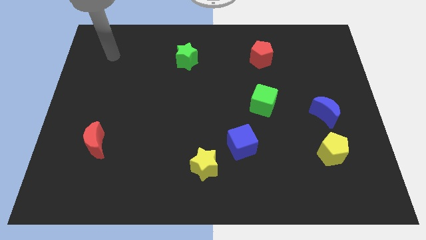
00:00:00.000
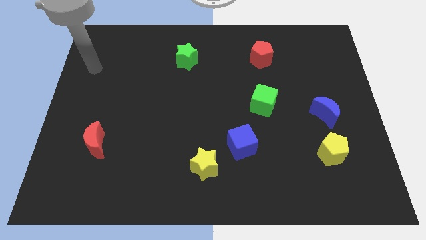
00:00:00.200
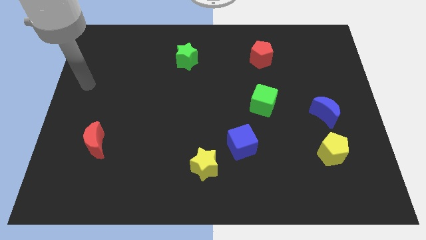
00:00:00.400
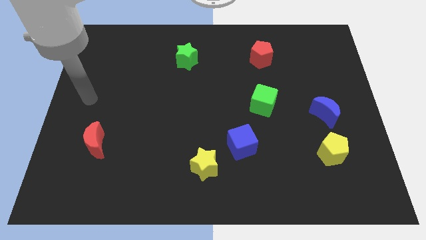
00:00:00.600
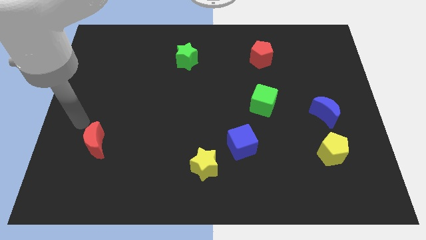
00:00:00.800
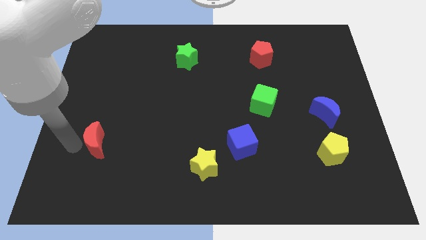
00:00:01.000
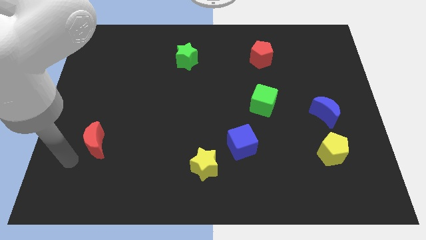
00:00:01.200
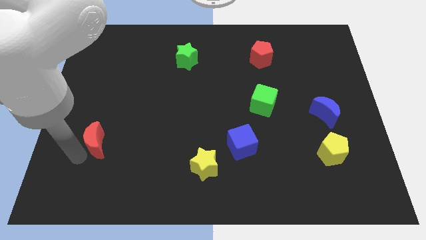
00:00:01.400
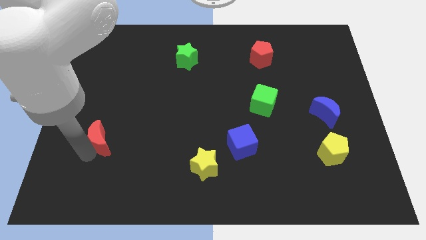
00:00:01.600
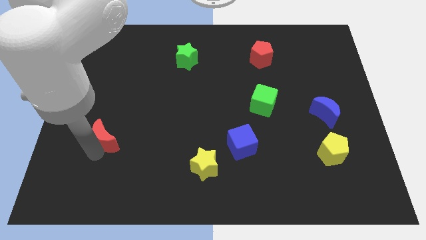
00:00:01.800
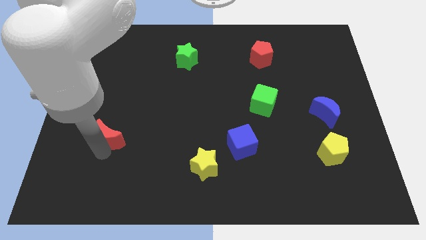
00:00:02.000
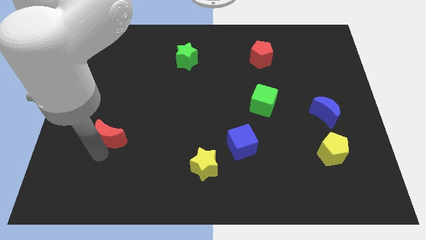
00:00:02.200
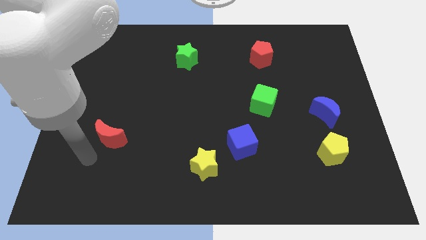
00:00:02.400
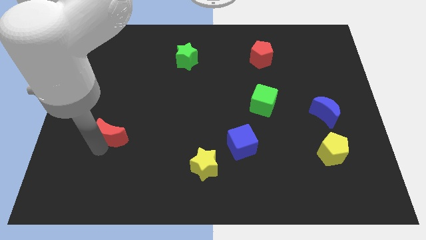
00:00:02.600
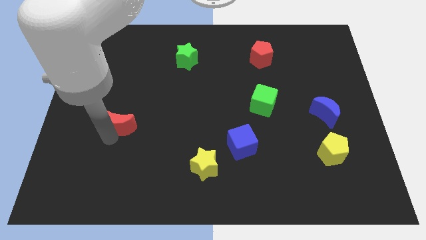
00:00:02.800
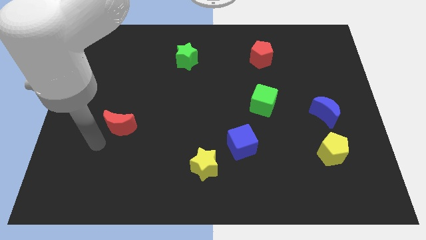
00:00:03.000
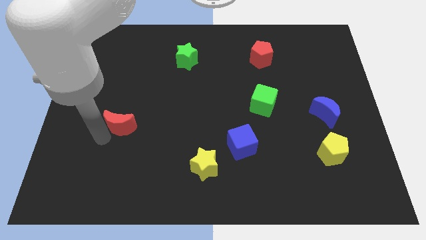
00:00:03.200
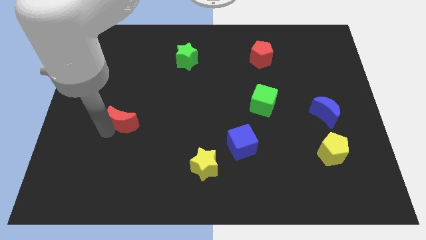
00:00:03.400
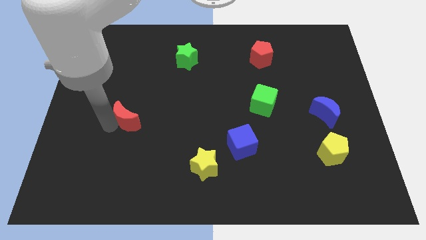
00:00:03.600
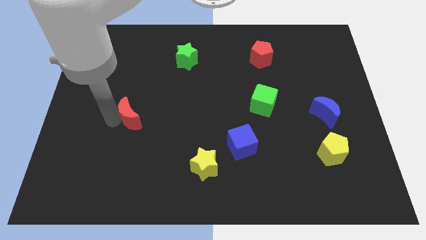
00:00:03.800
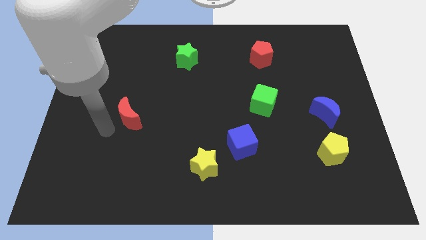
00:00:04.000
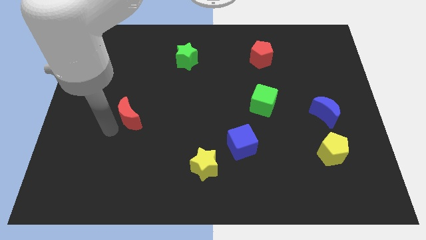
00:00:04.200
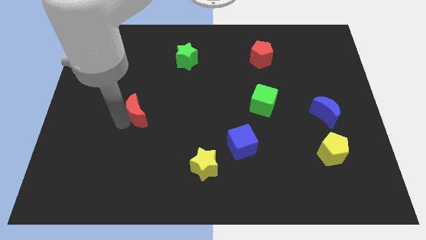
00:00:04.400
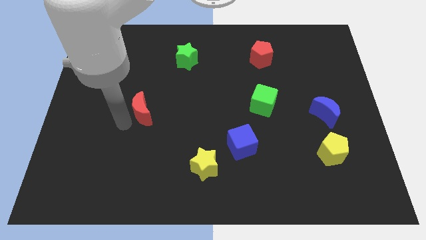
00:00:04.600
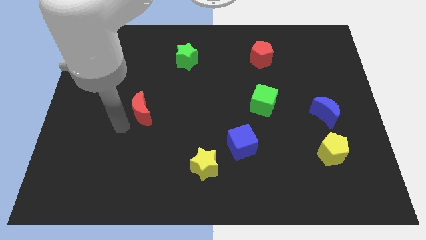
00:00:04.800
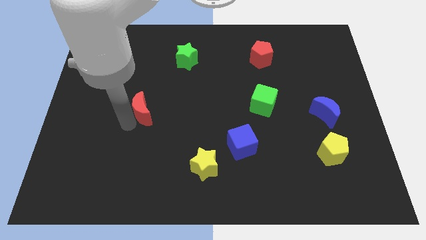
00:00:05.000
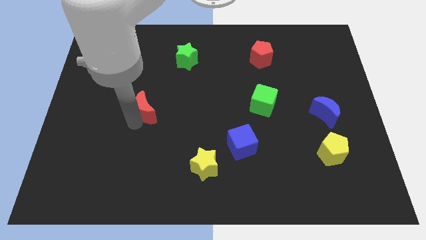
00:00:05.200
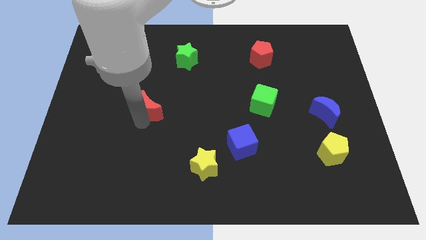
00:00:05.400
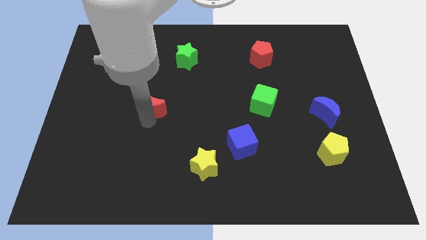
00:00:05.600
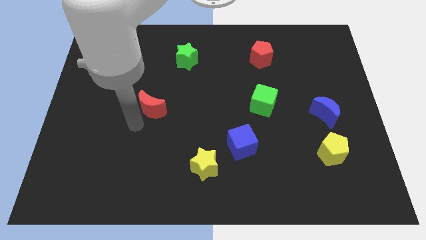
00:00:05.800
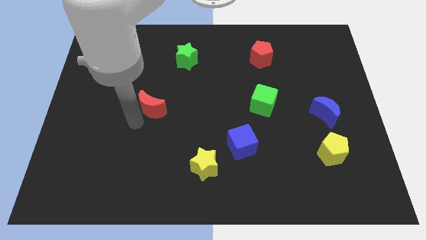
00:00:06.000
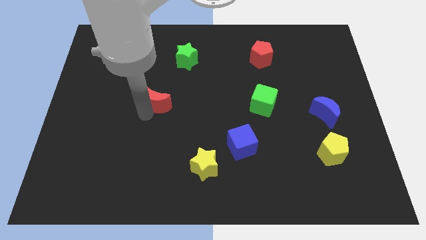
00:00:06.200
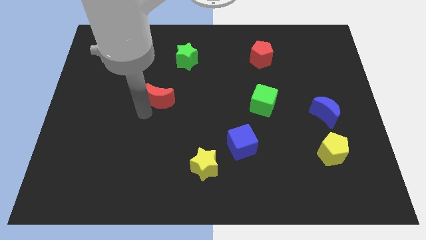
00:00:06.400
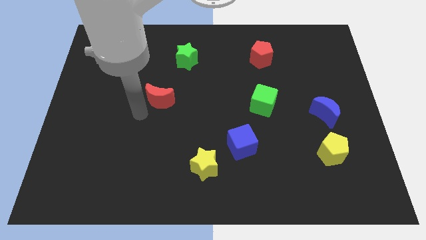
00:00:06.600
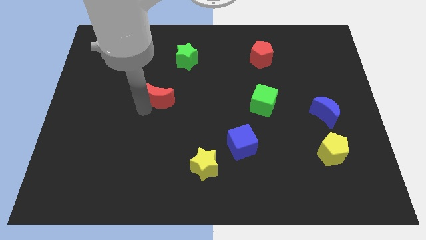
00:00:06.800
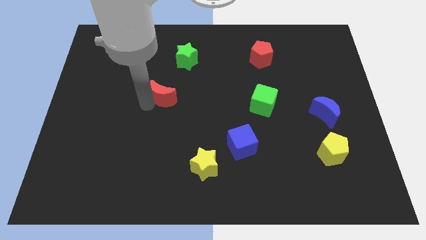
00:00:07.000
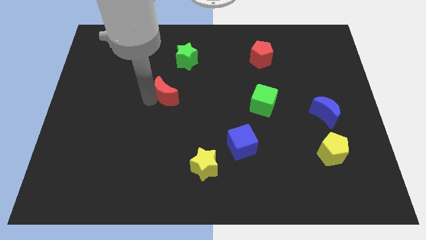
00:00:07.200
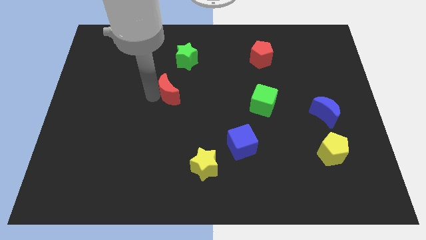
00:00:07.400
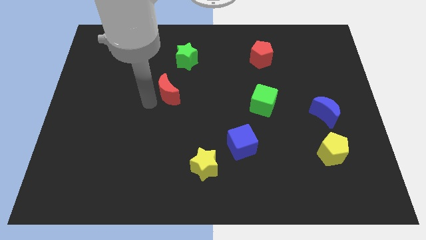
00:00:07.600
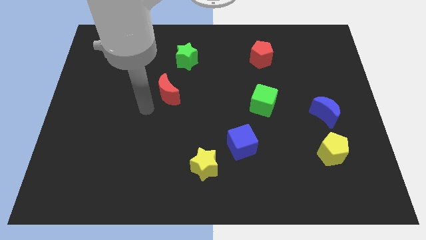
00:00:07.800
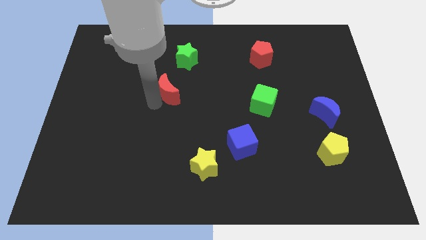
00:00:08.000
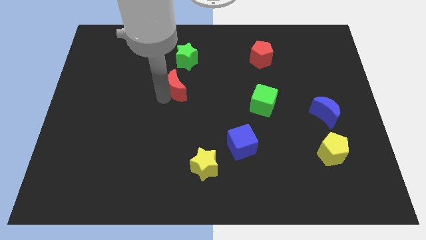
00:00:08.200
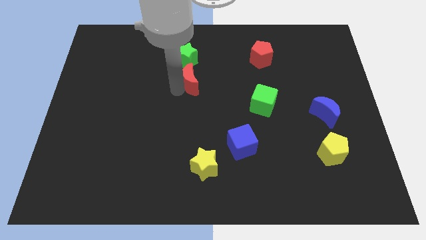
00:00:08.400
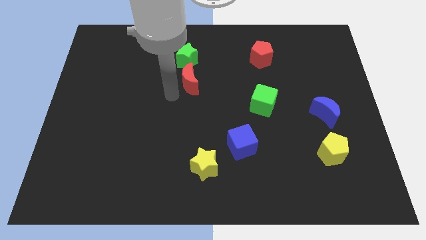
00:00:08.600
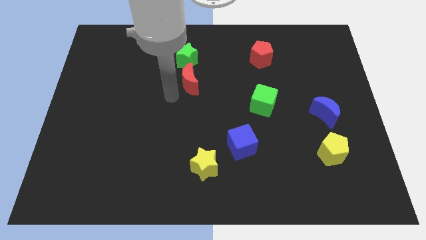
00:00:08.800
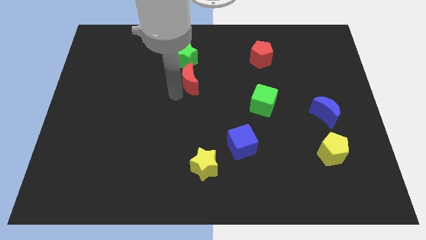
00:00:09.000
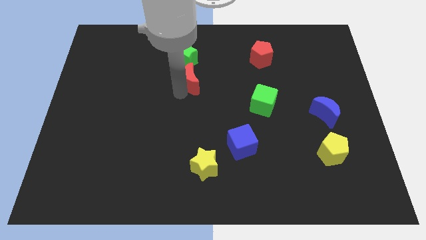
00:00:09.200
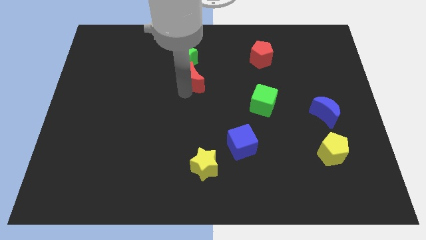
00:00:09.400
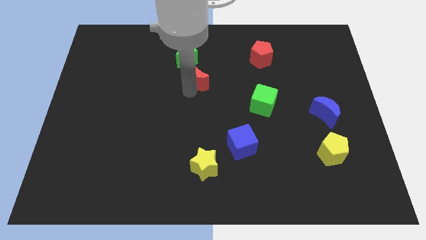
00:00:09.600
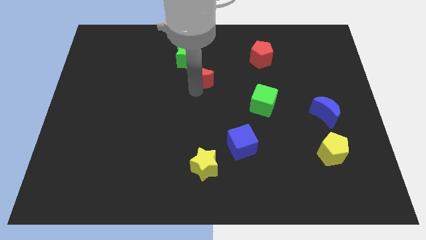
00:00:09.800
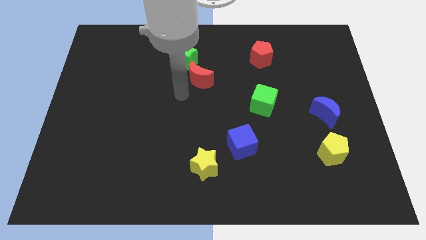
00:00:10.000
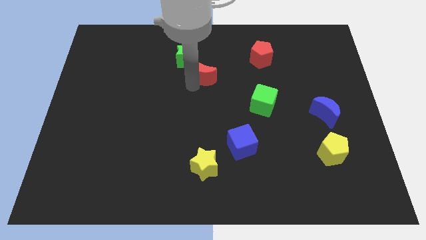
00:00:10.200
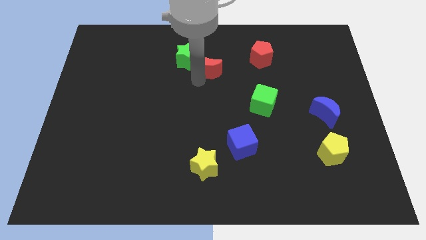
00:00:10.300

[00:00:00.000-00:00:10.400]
put the red moon right of the green star

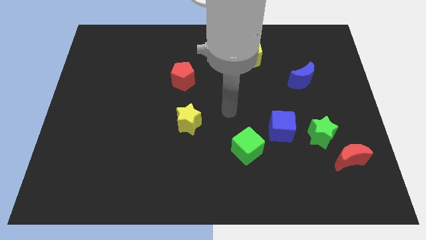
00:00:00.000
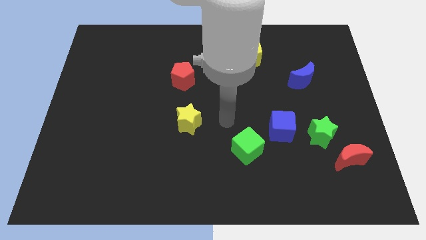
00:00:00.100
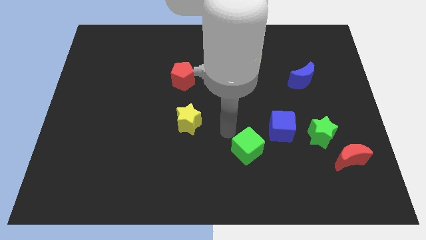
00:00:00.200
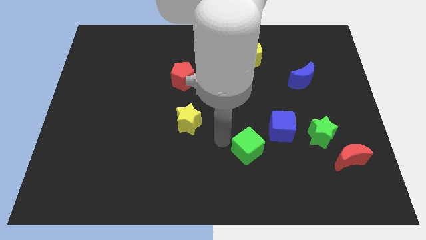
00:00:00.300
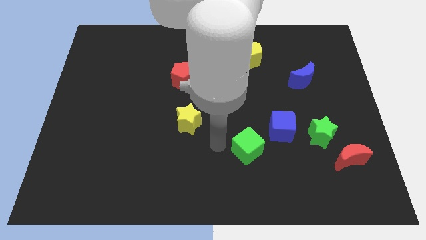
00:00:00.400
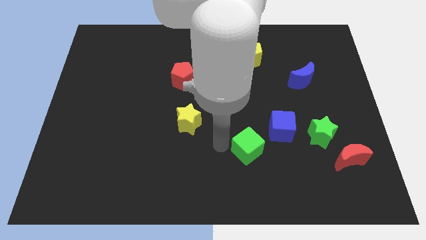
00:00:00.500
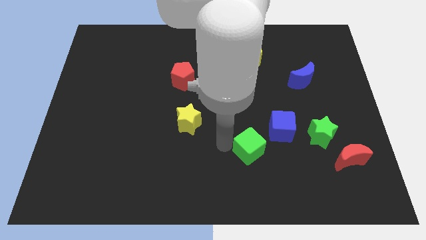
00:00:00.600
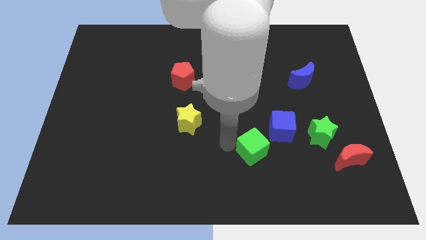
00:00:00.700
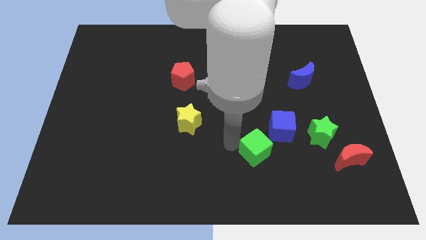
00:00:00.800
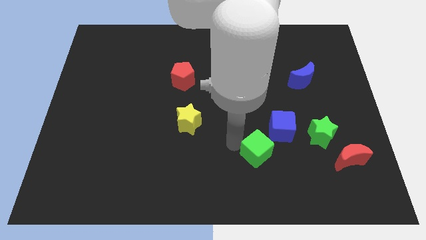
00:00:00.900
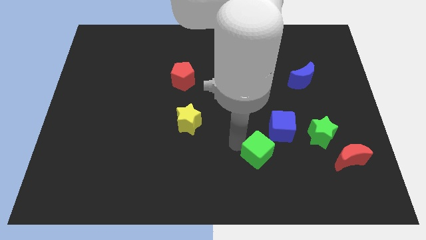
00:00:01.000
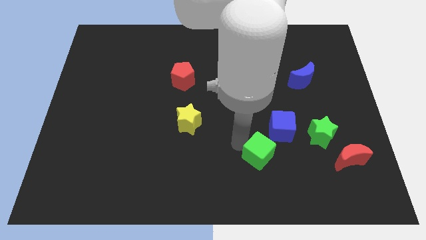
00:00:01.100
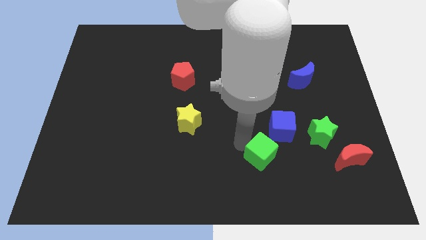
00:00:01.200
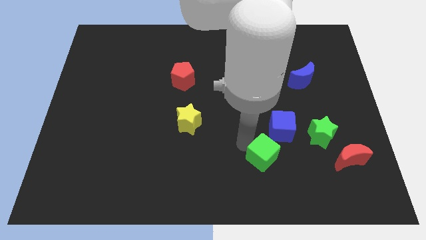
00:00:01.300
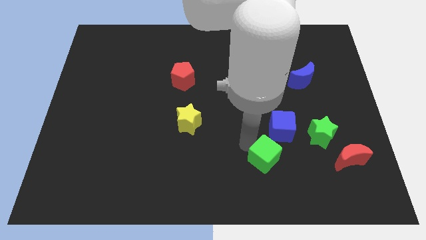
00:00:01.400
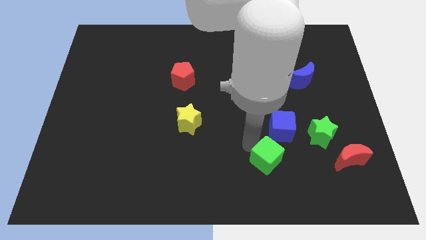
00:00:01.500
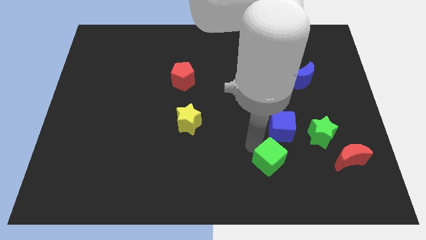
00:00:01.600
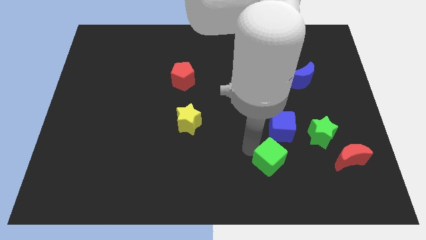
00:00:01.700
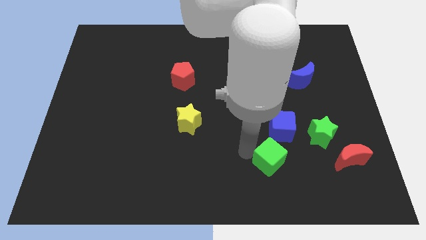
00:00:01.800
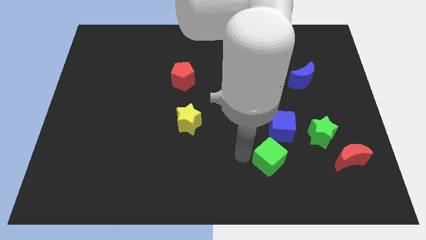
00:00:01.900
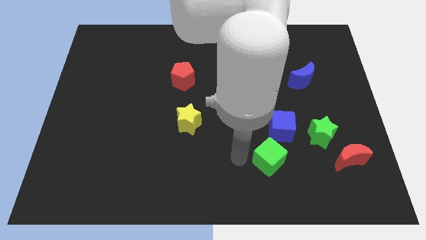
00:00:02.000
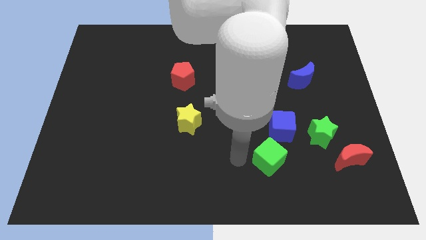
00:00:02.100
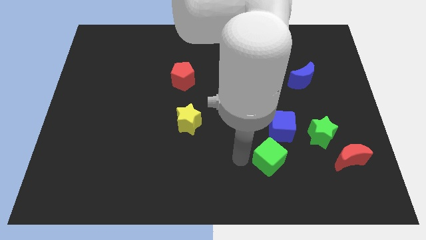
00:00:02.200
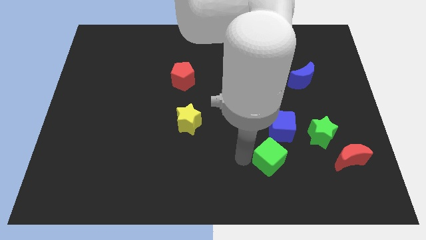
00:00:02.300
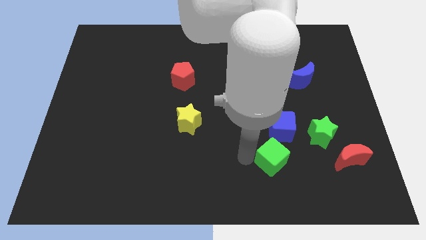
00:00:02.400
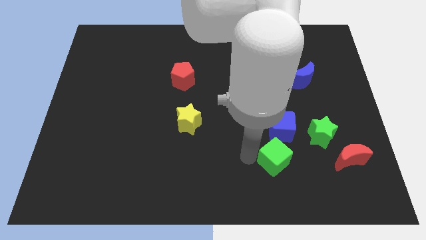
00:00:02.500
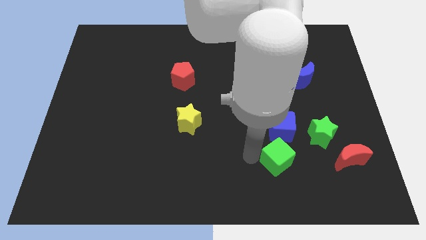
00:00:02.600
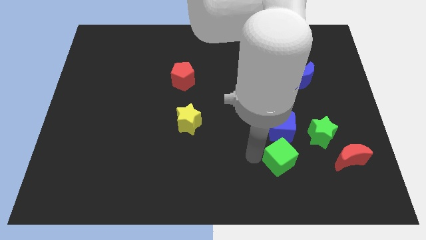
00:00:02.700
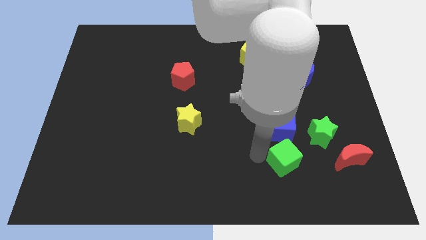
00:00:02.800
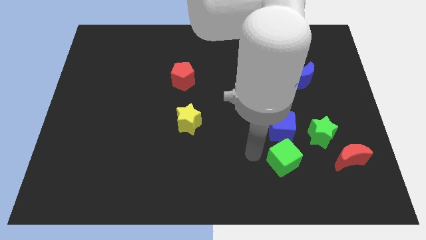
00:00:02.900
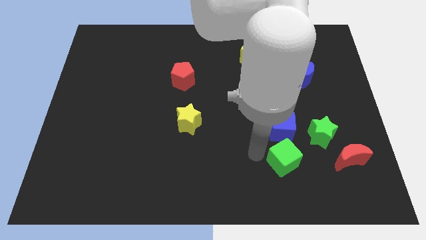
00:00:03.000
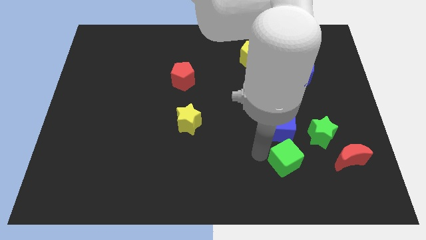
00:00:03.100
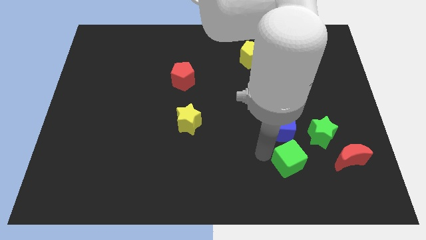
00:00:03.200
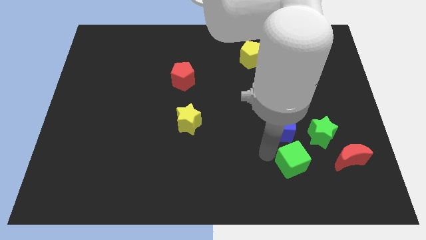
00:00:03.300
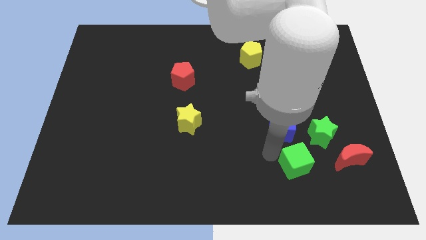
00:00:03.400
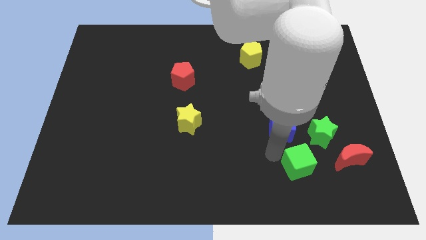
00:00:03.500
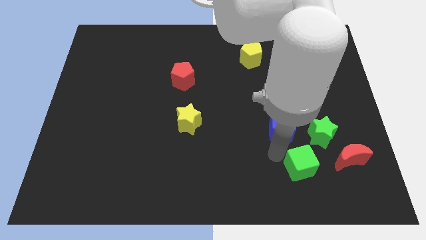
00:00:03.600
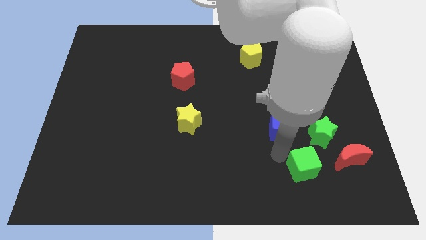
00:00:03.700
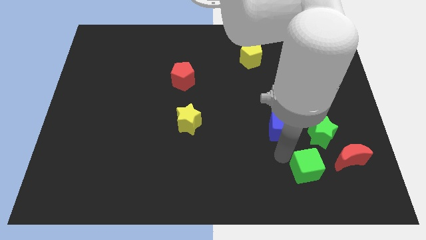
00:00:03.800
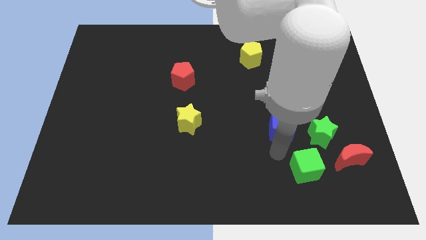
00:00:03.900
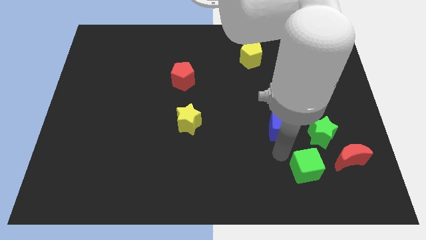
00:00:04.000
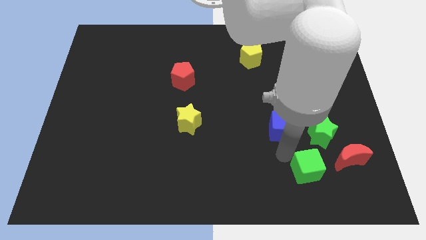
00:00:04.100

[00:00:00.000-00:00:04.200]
move the green cube to the bottom left of the red moon
